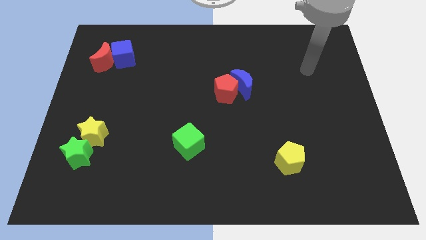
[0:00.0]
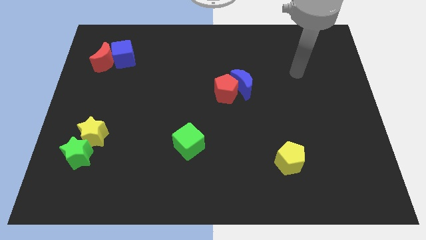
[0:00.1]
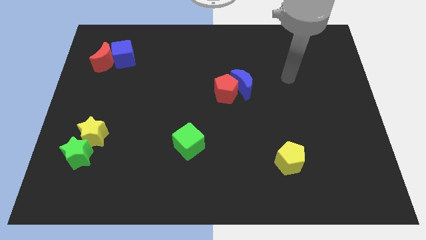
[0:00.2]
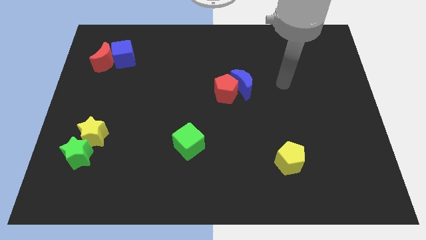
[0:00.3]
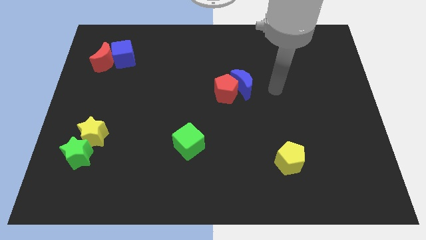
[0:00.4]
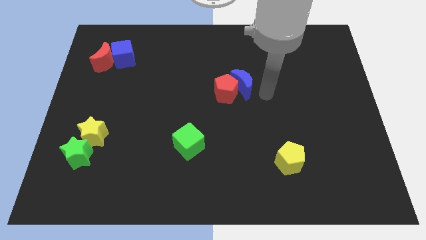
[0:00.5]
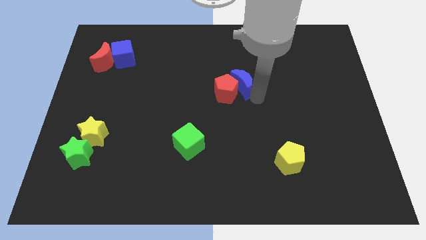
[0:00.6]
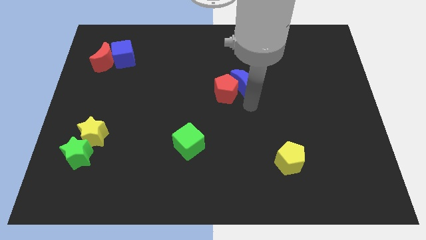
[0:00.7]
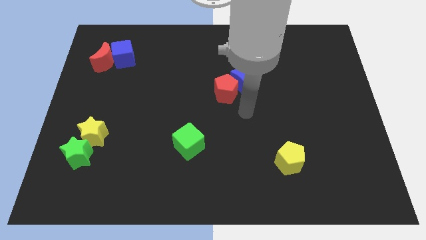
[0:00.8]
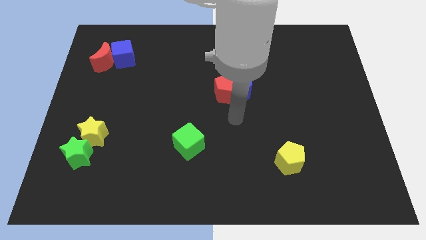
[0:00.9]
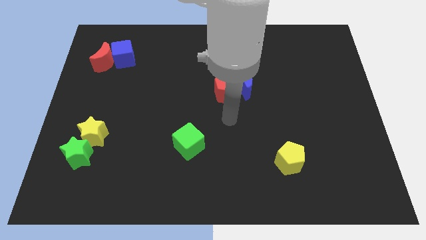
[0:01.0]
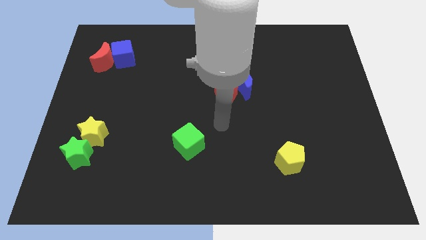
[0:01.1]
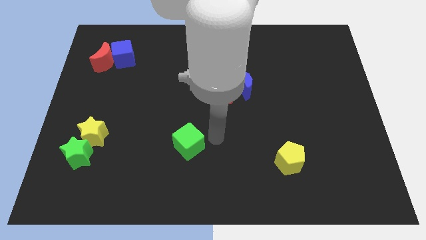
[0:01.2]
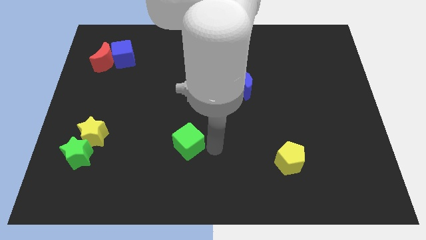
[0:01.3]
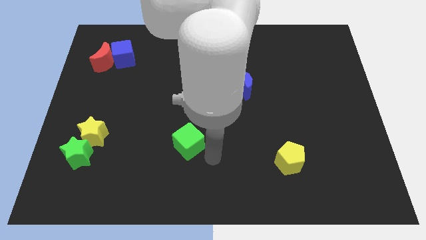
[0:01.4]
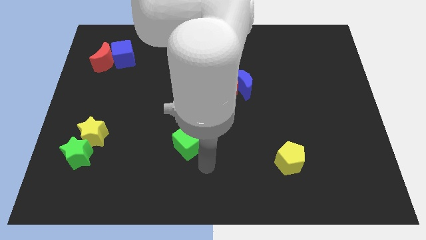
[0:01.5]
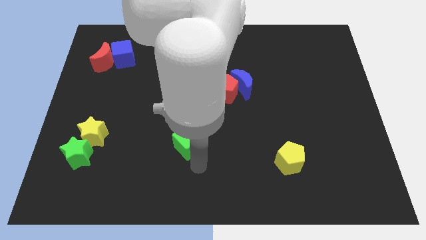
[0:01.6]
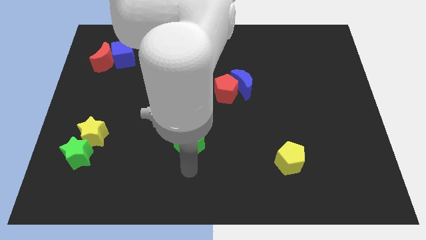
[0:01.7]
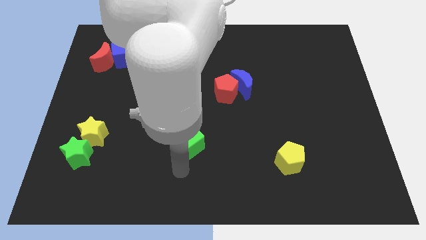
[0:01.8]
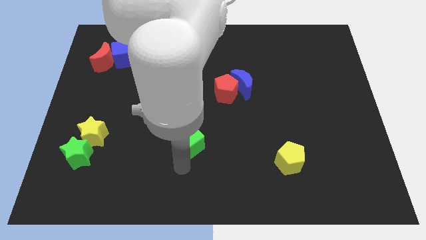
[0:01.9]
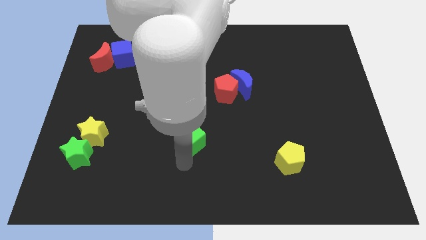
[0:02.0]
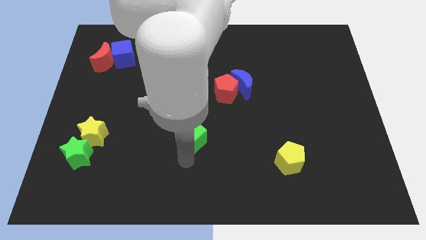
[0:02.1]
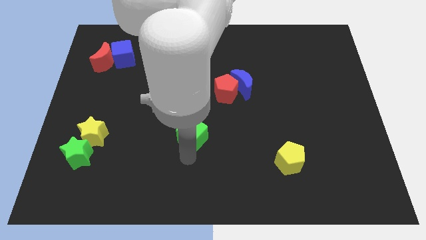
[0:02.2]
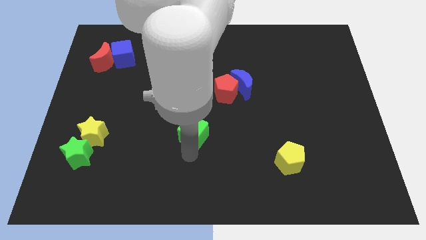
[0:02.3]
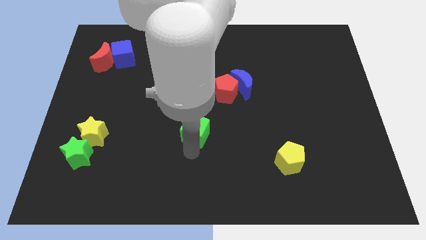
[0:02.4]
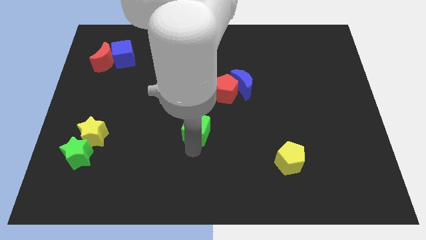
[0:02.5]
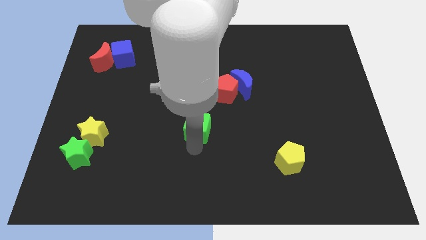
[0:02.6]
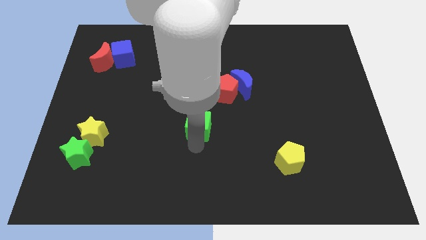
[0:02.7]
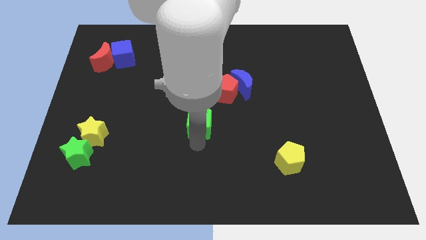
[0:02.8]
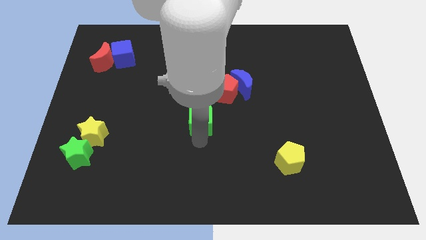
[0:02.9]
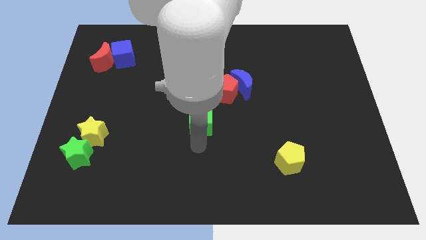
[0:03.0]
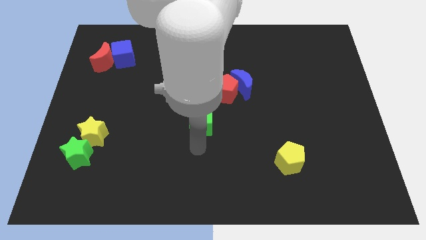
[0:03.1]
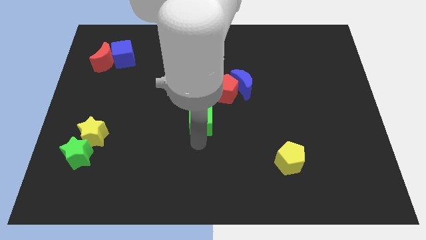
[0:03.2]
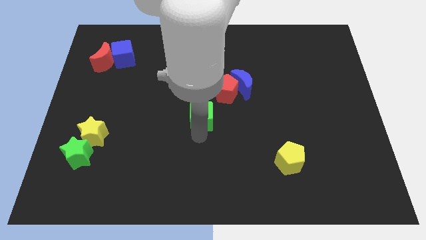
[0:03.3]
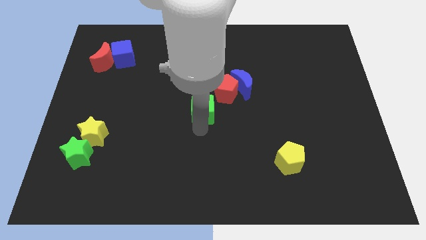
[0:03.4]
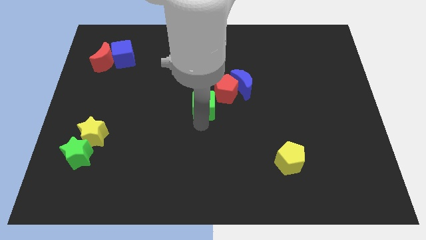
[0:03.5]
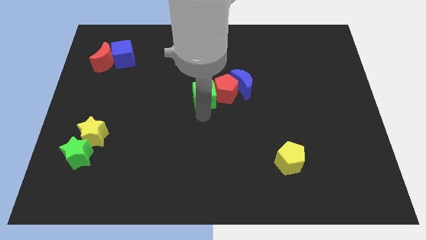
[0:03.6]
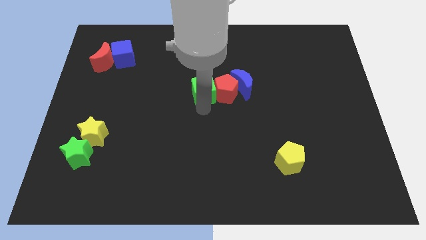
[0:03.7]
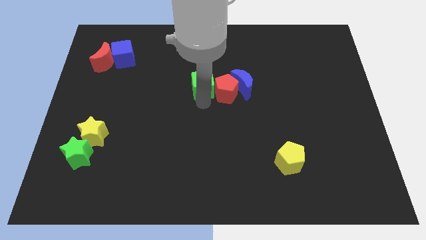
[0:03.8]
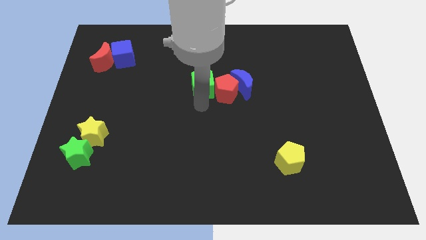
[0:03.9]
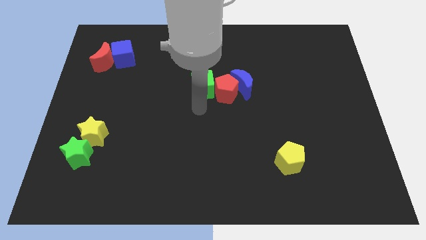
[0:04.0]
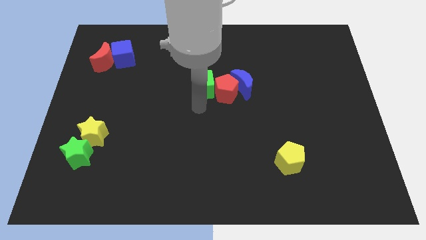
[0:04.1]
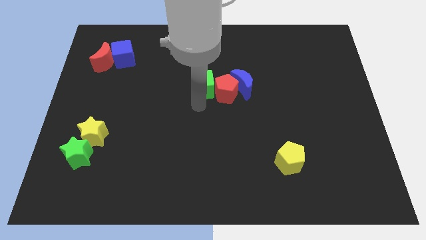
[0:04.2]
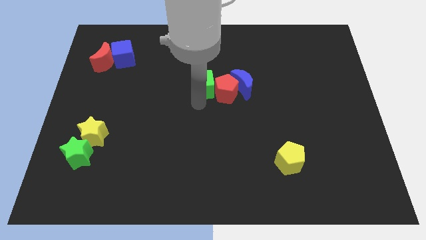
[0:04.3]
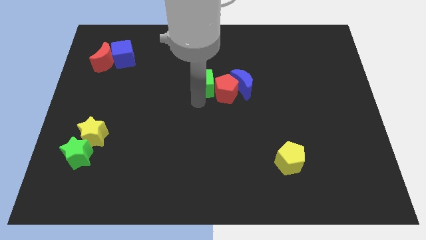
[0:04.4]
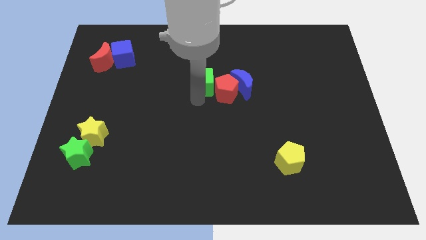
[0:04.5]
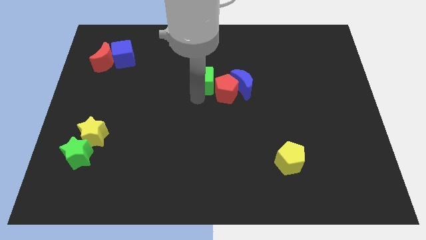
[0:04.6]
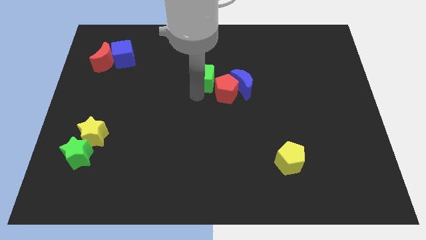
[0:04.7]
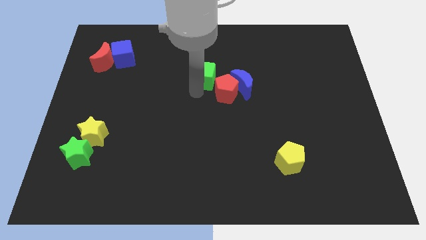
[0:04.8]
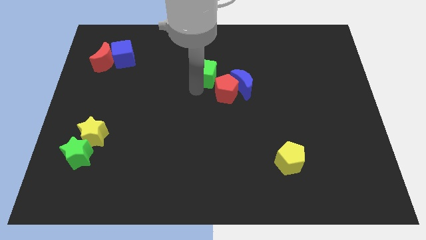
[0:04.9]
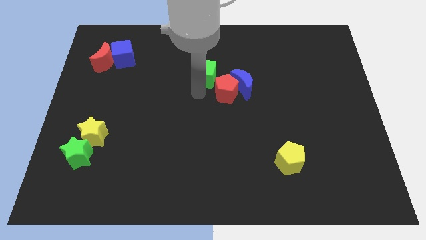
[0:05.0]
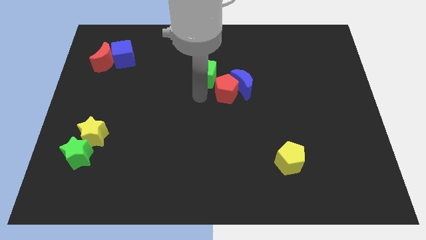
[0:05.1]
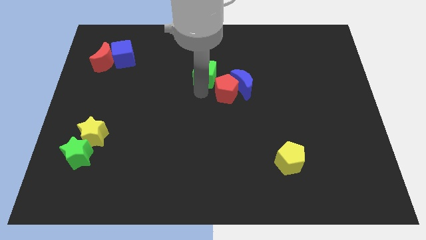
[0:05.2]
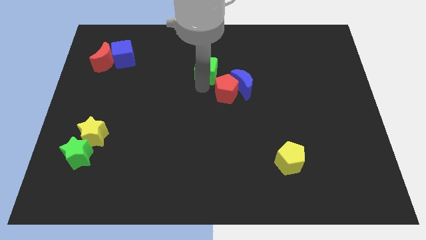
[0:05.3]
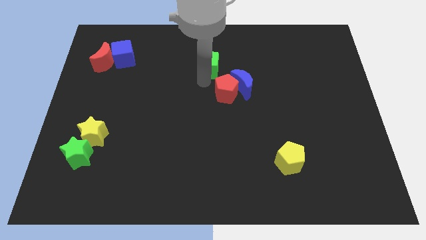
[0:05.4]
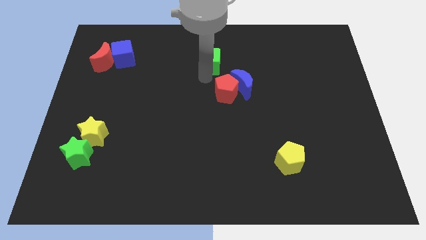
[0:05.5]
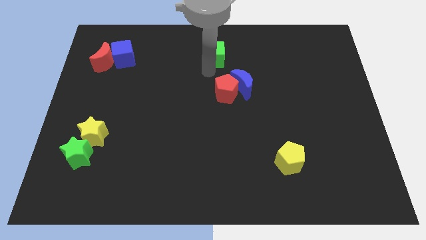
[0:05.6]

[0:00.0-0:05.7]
move the green cube to the top

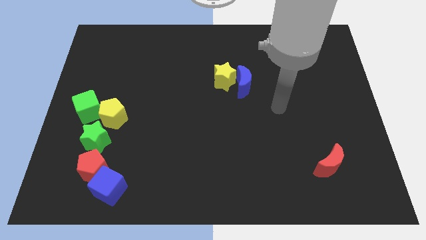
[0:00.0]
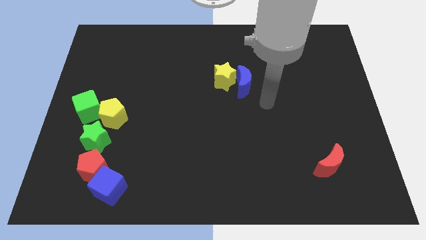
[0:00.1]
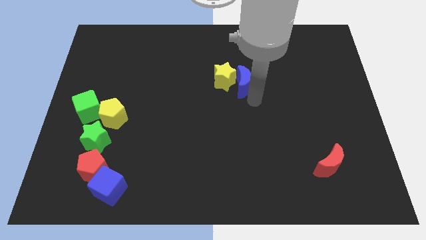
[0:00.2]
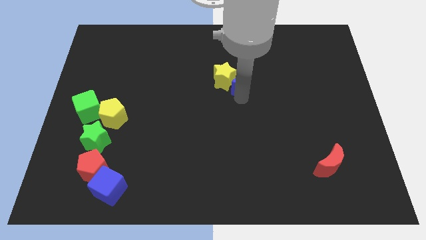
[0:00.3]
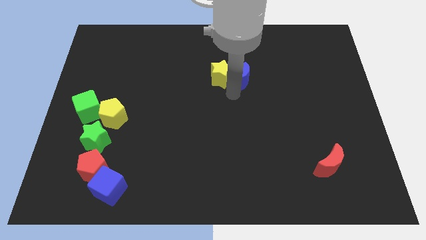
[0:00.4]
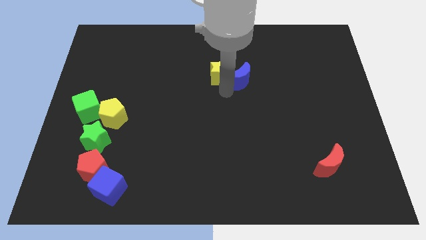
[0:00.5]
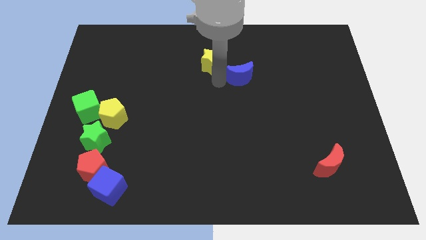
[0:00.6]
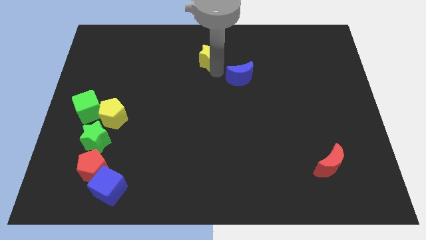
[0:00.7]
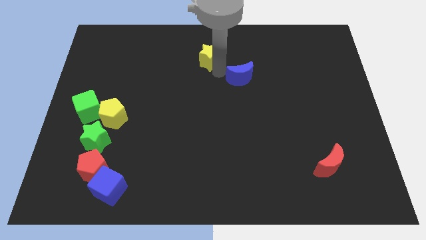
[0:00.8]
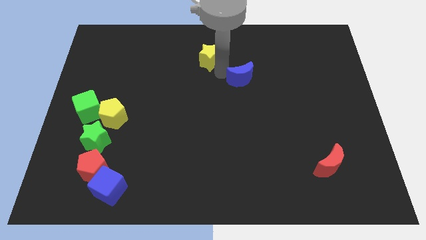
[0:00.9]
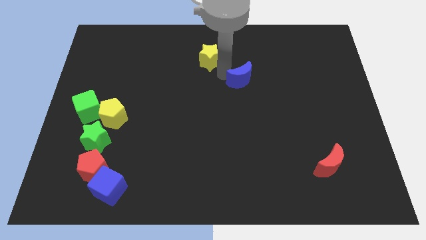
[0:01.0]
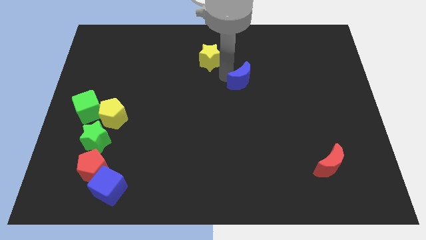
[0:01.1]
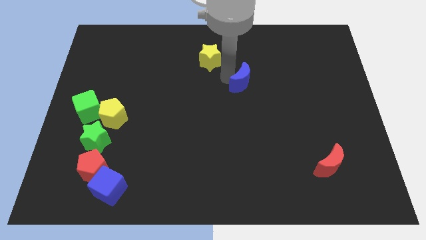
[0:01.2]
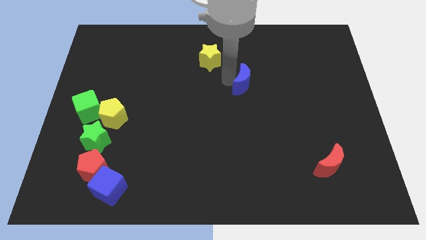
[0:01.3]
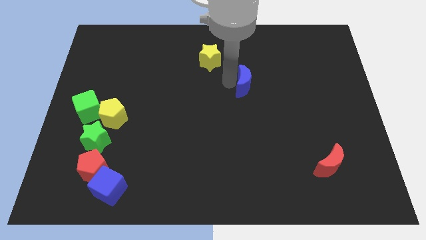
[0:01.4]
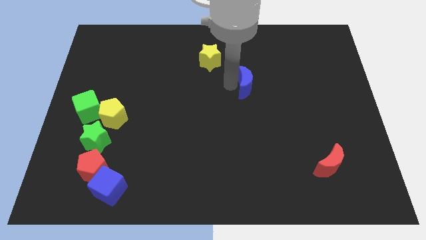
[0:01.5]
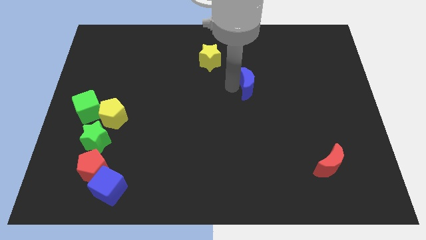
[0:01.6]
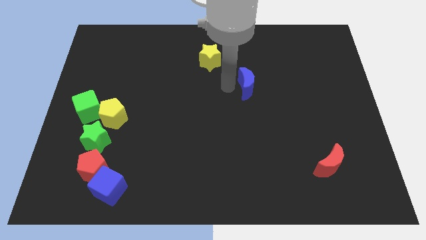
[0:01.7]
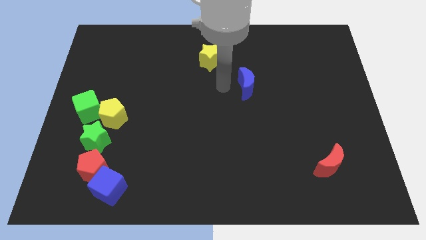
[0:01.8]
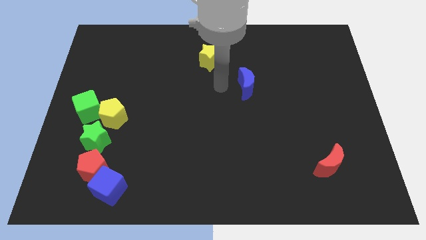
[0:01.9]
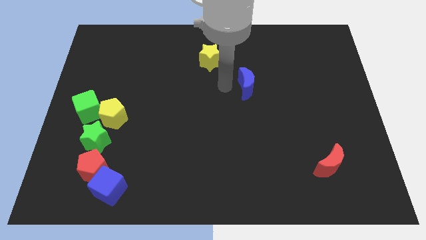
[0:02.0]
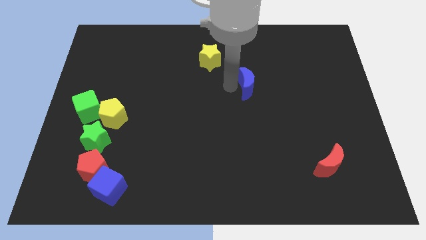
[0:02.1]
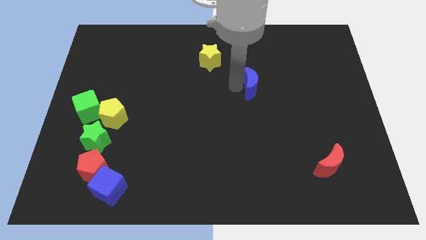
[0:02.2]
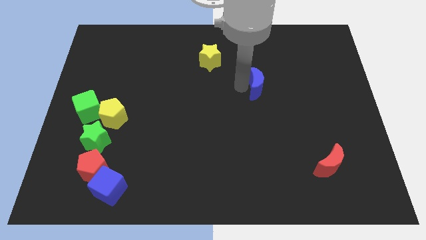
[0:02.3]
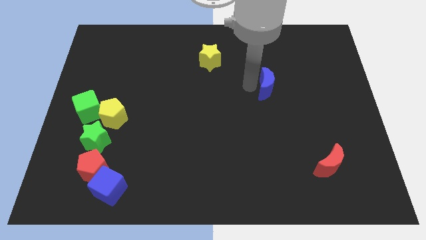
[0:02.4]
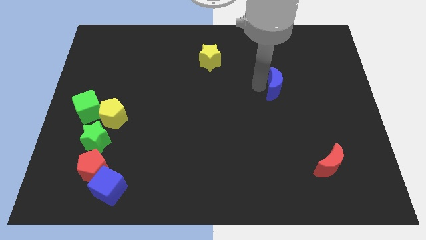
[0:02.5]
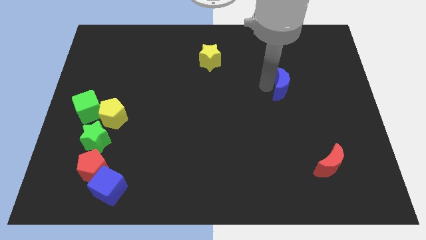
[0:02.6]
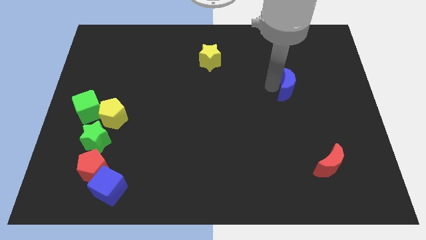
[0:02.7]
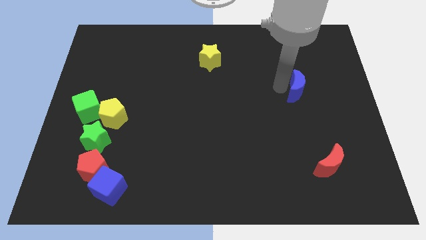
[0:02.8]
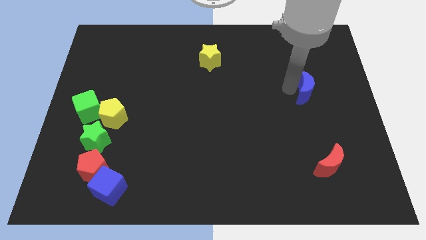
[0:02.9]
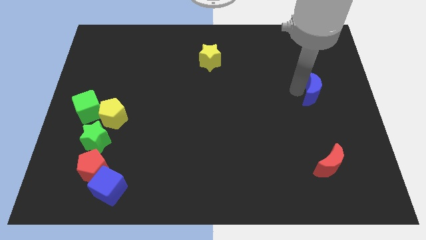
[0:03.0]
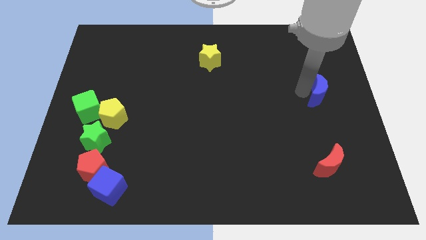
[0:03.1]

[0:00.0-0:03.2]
slide the blue moon to the right side of the board

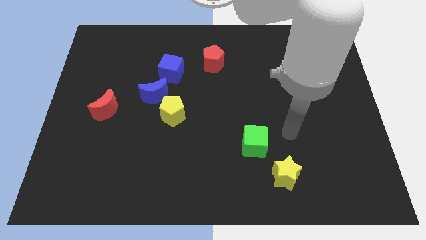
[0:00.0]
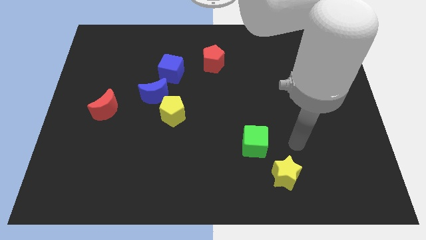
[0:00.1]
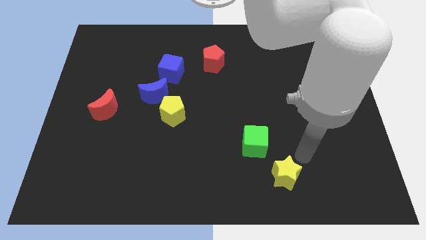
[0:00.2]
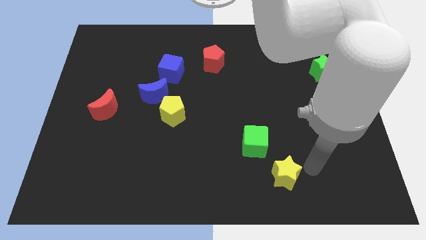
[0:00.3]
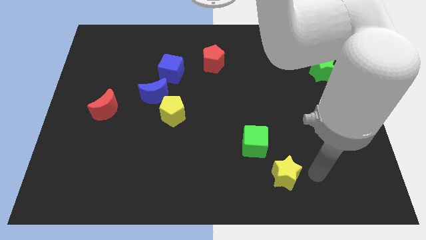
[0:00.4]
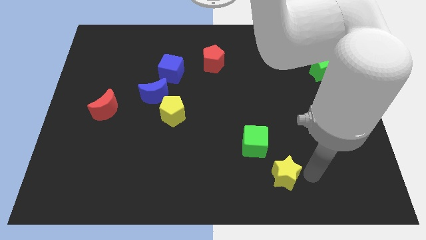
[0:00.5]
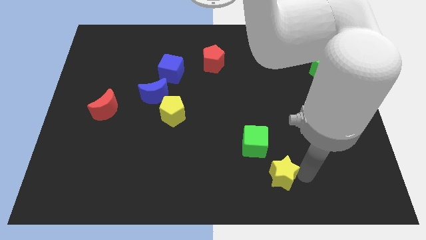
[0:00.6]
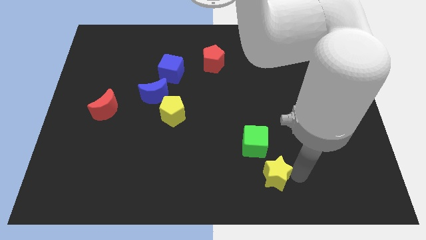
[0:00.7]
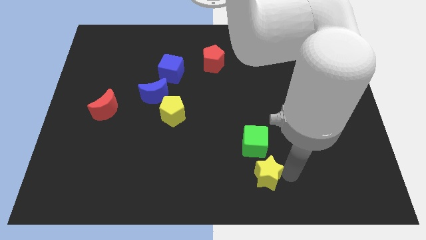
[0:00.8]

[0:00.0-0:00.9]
put the yellow star to the bottom side
